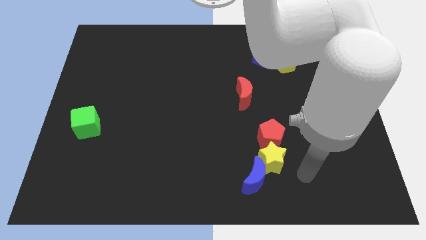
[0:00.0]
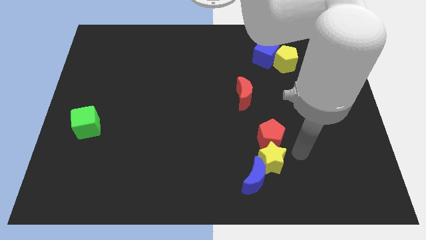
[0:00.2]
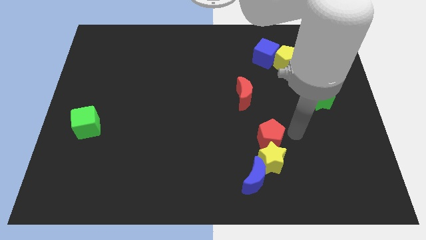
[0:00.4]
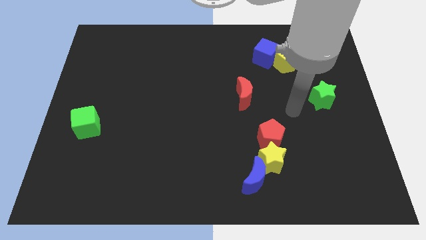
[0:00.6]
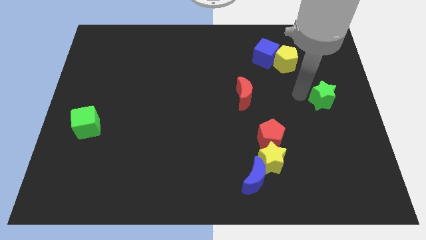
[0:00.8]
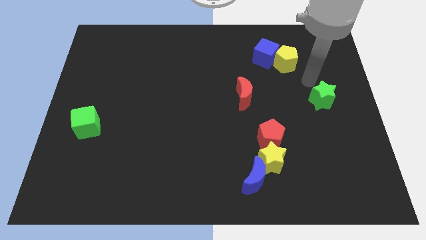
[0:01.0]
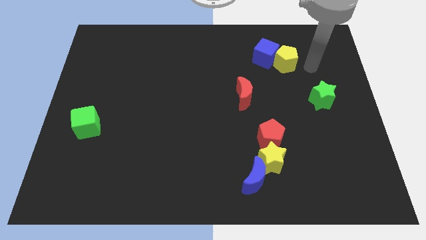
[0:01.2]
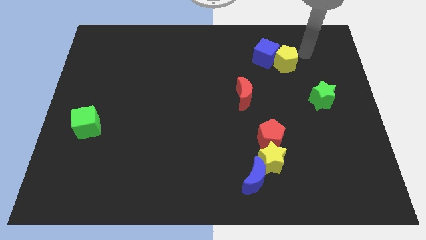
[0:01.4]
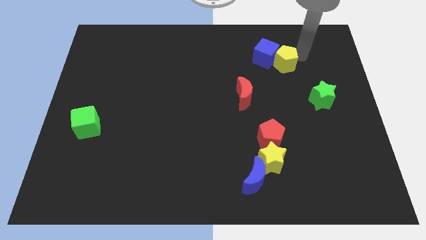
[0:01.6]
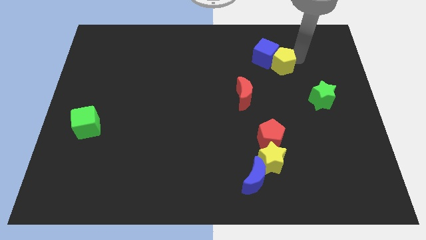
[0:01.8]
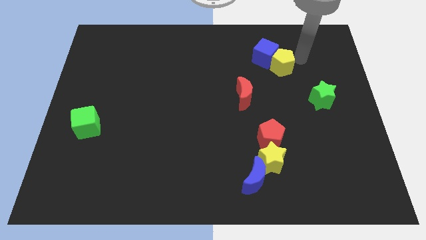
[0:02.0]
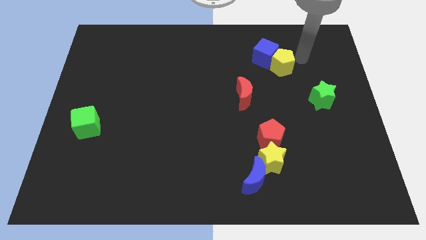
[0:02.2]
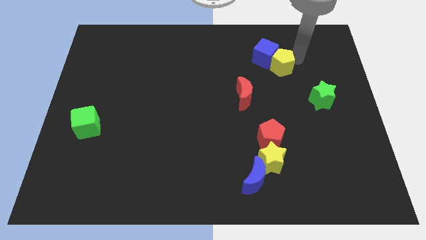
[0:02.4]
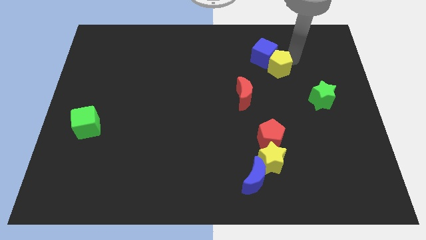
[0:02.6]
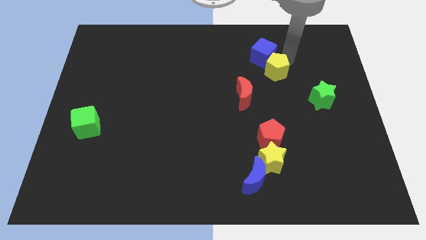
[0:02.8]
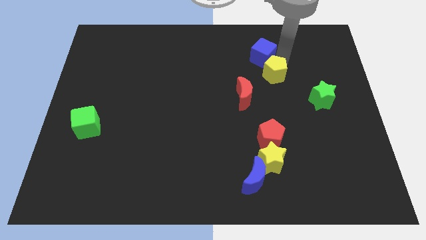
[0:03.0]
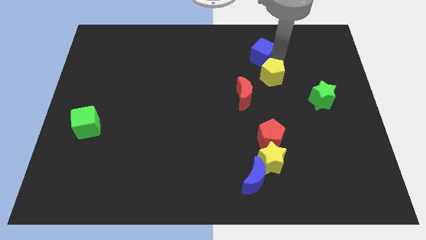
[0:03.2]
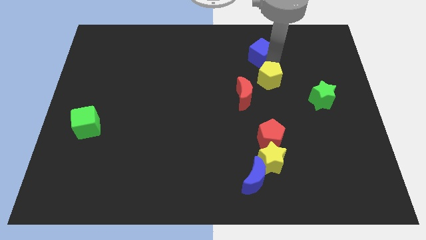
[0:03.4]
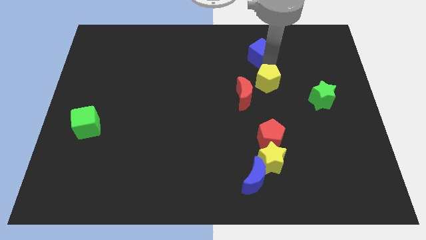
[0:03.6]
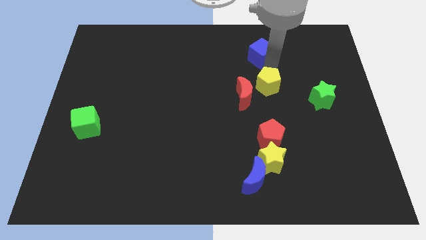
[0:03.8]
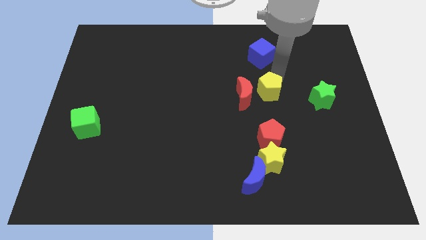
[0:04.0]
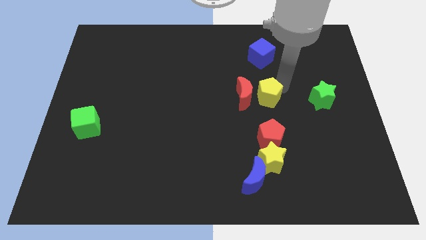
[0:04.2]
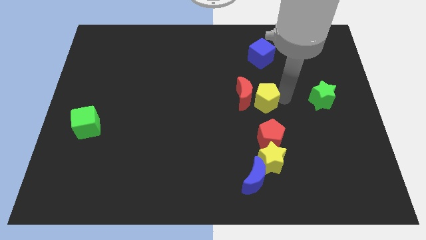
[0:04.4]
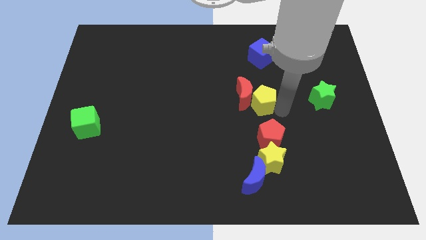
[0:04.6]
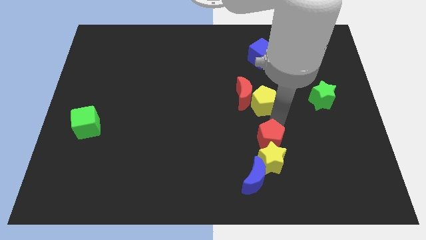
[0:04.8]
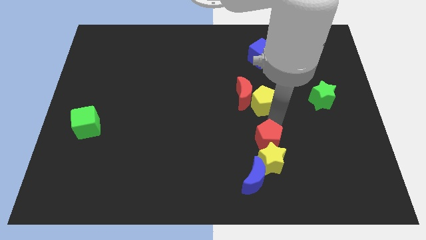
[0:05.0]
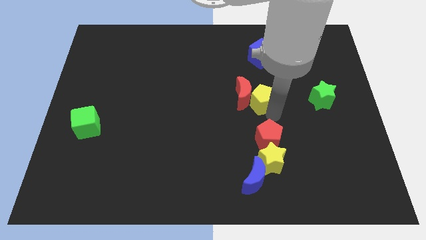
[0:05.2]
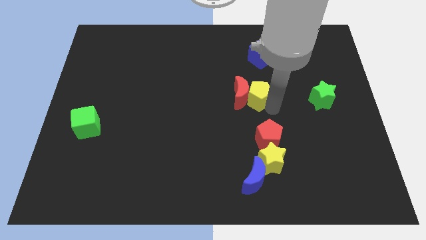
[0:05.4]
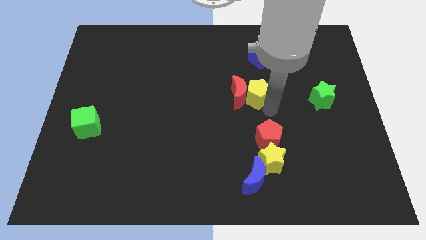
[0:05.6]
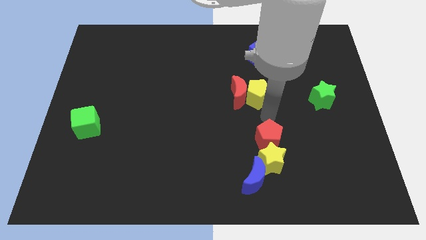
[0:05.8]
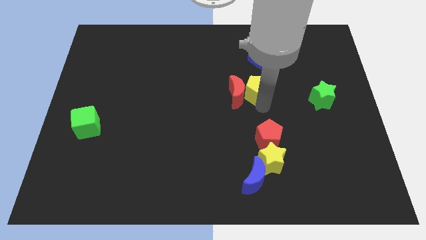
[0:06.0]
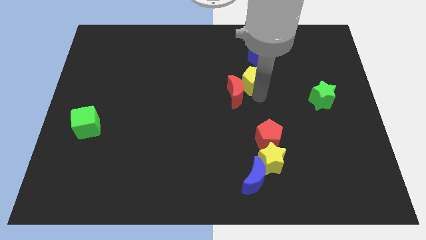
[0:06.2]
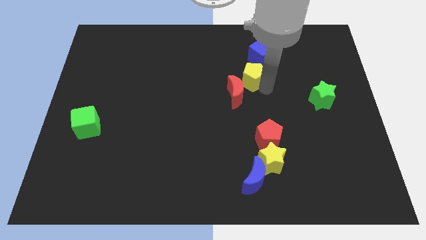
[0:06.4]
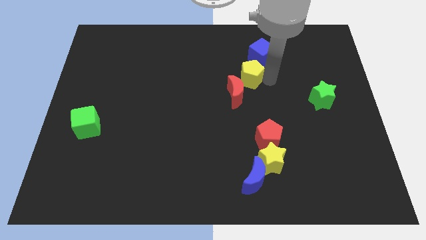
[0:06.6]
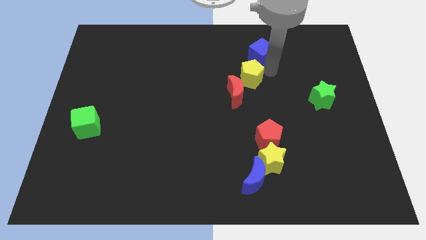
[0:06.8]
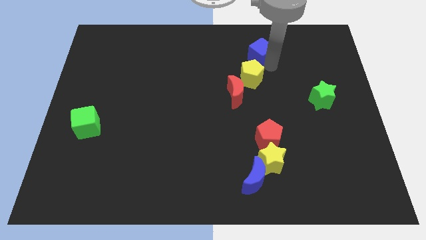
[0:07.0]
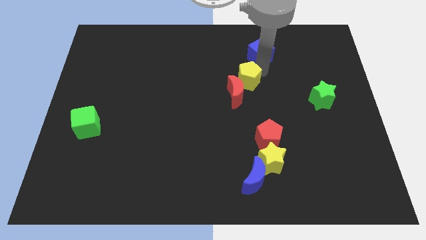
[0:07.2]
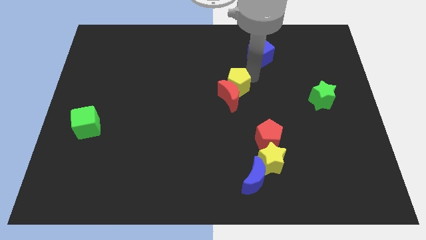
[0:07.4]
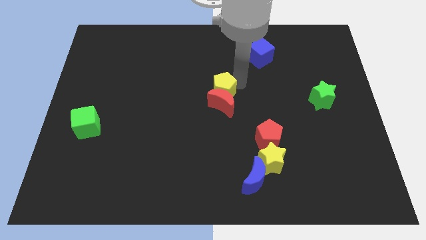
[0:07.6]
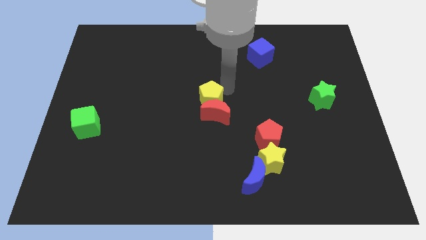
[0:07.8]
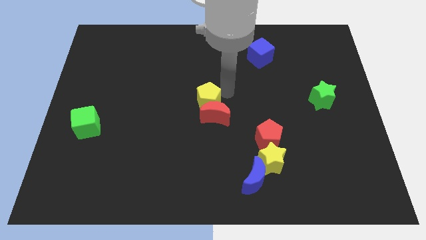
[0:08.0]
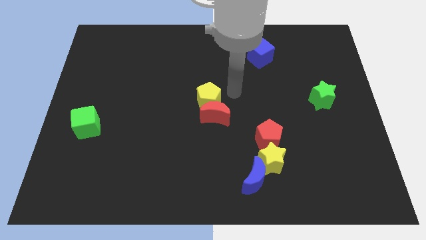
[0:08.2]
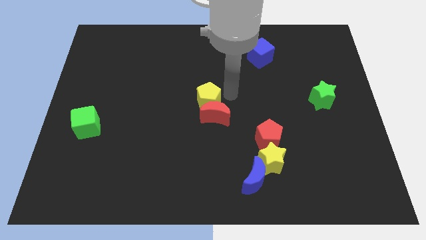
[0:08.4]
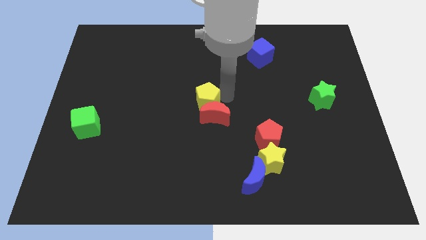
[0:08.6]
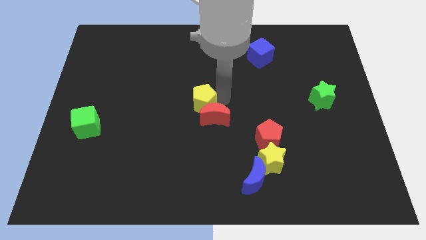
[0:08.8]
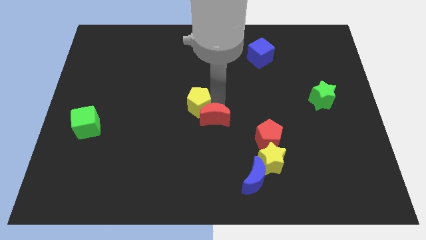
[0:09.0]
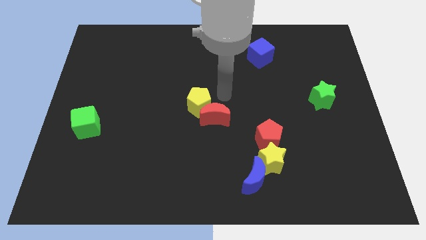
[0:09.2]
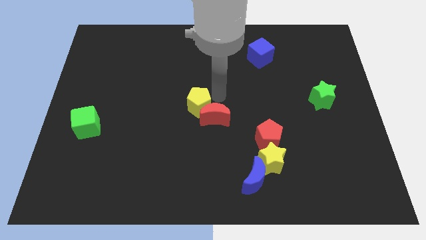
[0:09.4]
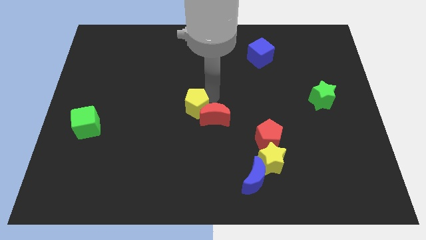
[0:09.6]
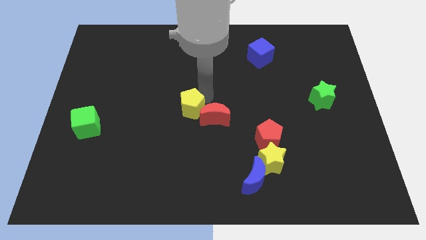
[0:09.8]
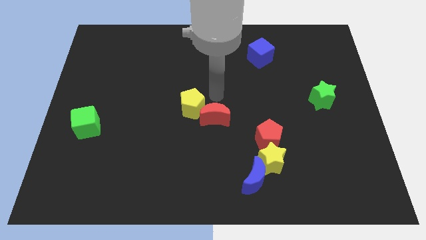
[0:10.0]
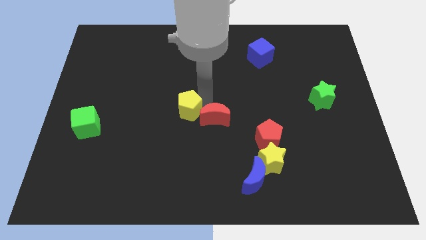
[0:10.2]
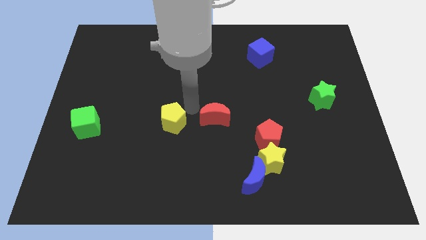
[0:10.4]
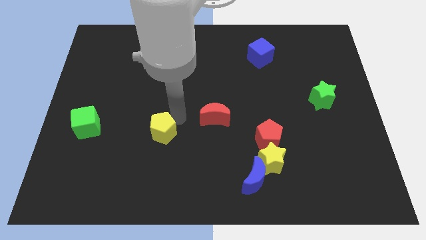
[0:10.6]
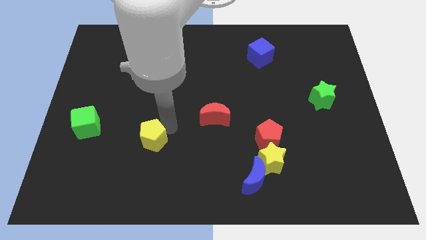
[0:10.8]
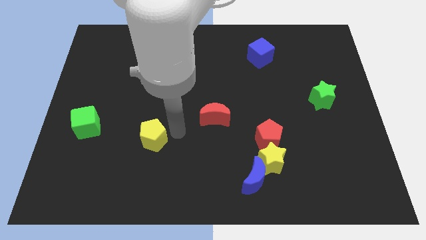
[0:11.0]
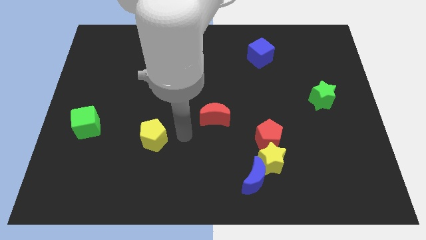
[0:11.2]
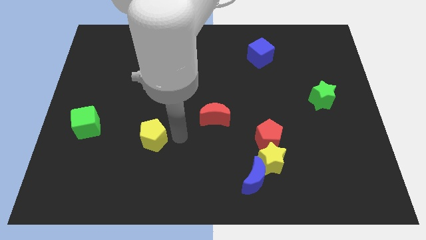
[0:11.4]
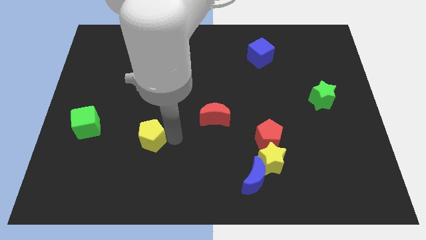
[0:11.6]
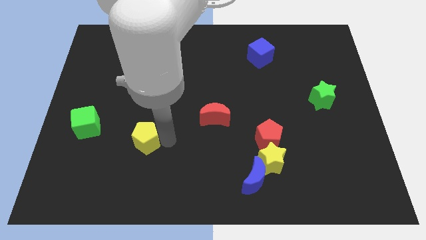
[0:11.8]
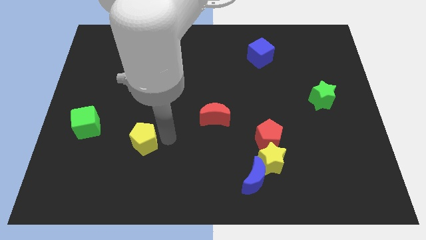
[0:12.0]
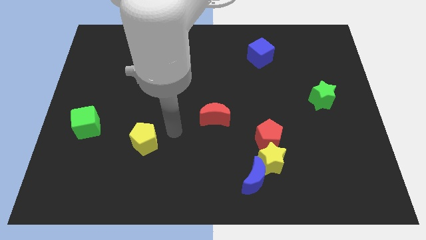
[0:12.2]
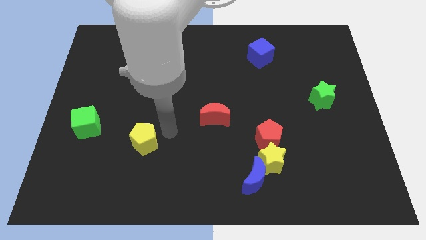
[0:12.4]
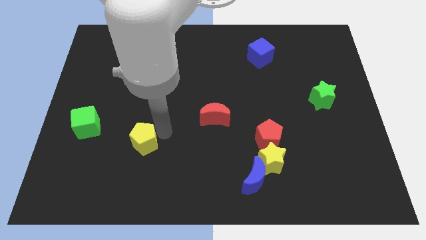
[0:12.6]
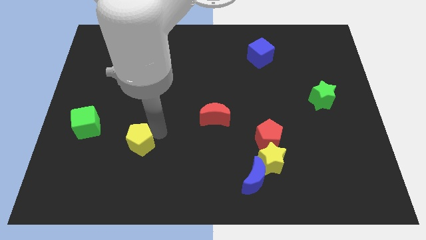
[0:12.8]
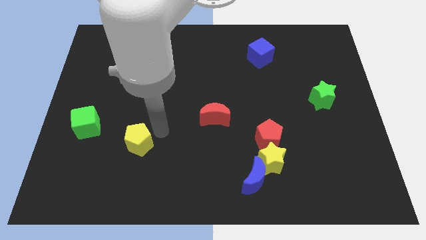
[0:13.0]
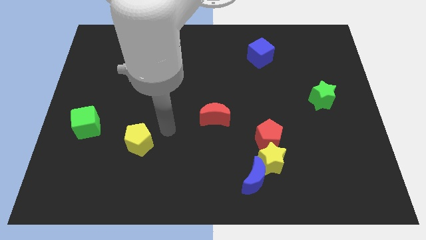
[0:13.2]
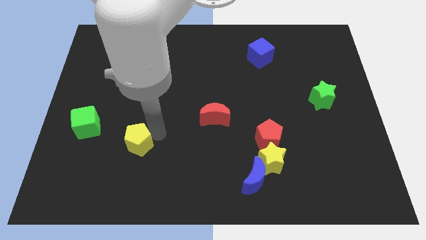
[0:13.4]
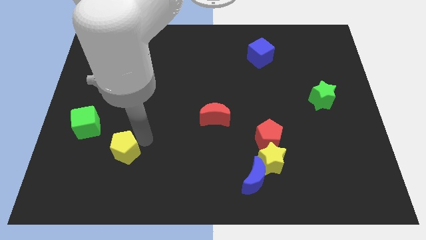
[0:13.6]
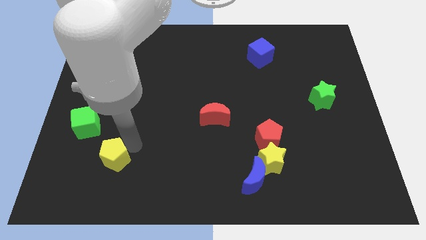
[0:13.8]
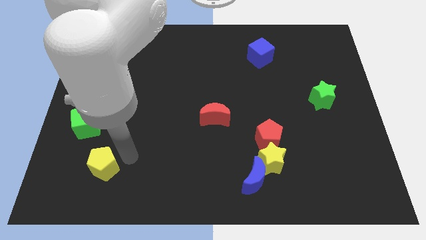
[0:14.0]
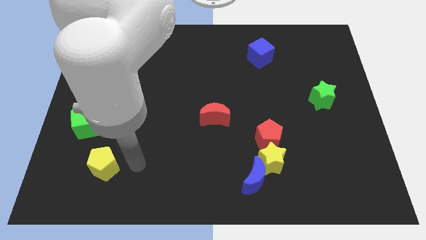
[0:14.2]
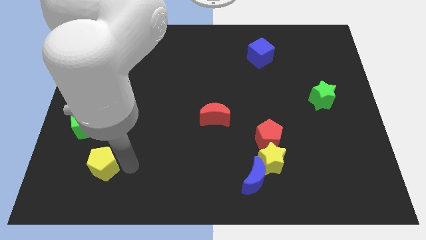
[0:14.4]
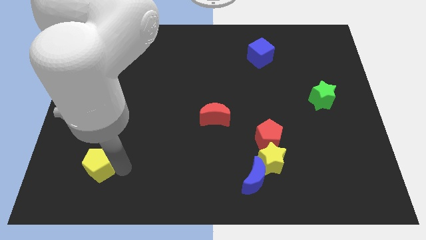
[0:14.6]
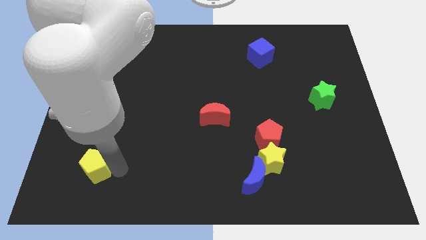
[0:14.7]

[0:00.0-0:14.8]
put the yellow pentagon to the bottom of the green cube
